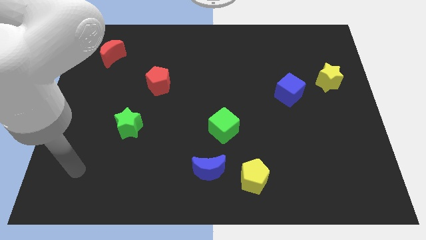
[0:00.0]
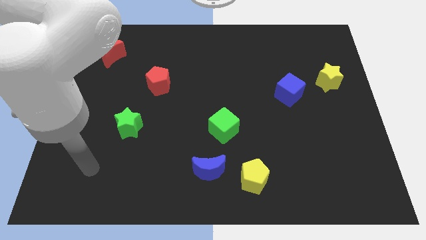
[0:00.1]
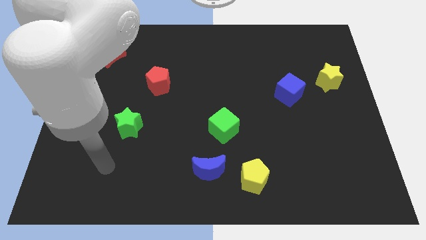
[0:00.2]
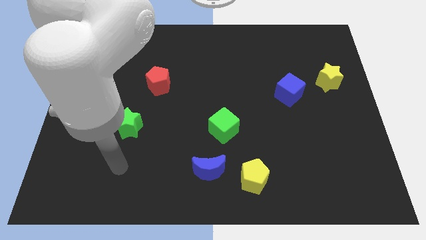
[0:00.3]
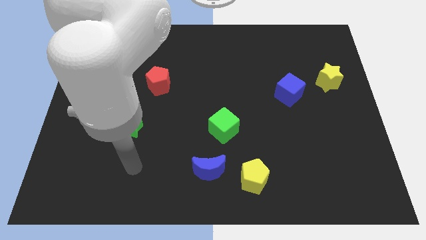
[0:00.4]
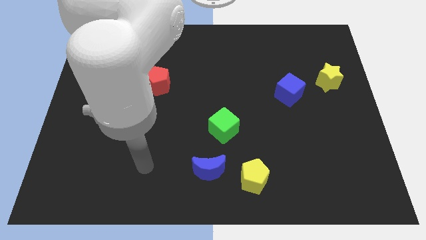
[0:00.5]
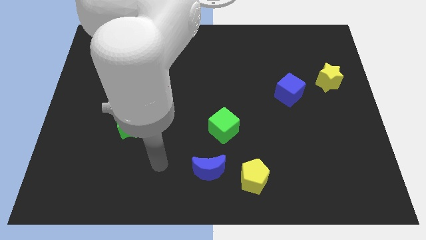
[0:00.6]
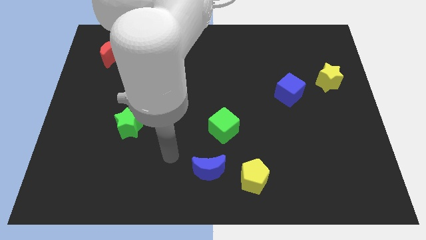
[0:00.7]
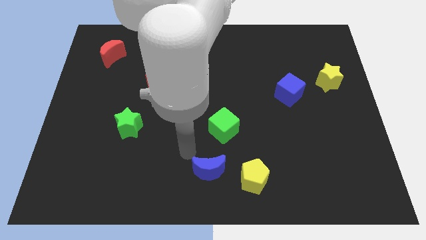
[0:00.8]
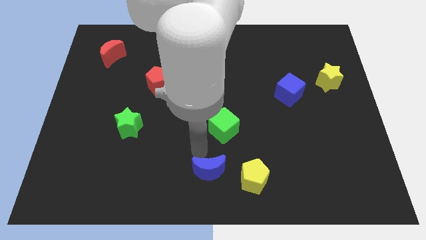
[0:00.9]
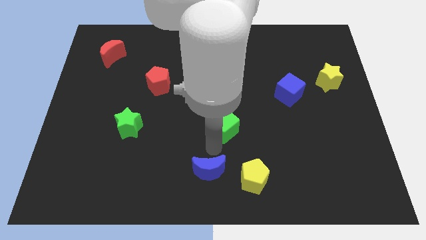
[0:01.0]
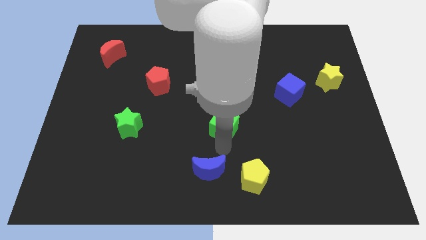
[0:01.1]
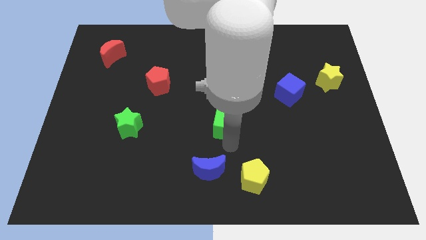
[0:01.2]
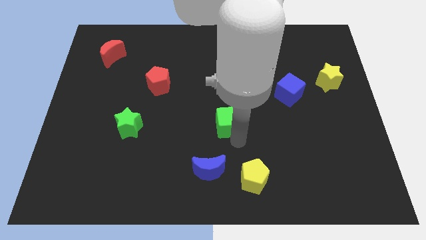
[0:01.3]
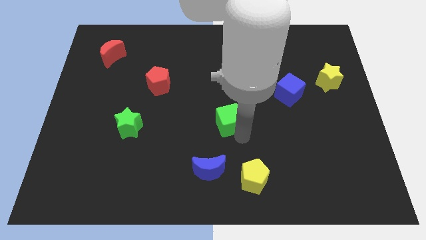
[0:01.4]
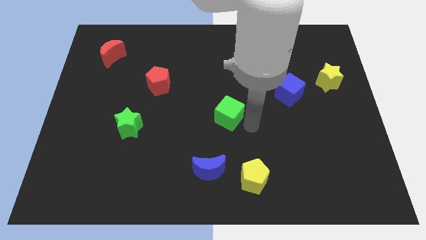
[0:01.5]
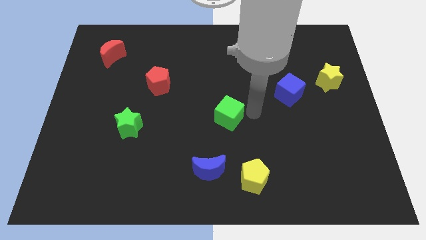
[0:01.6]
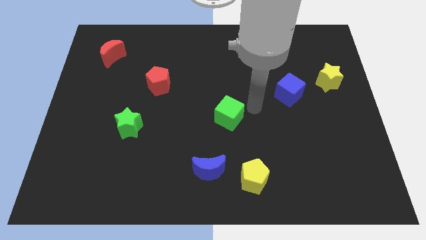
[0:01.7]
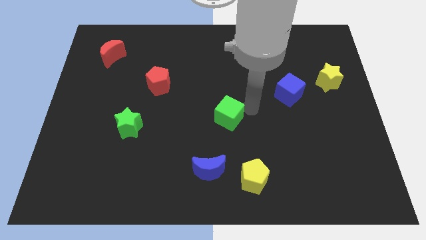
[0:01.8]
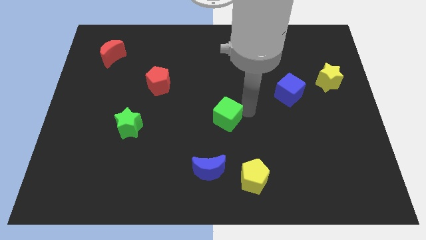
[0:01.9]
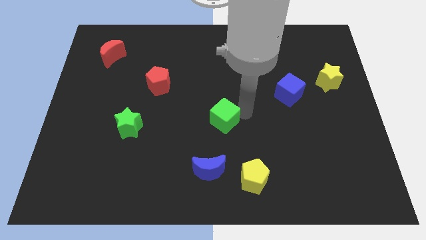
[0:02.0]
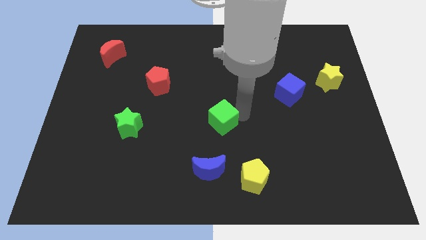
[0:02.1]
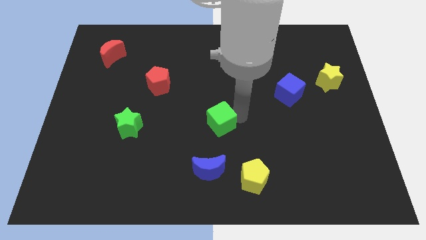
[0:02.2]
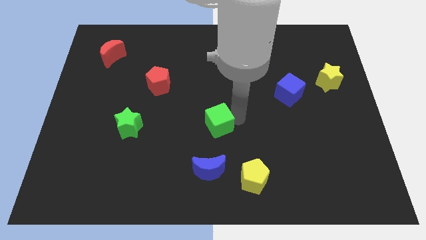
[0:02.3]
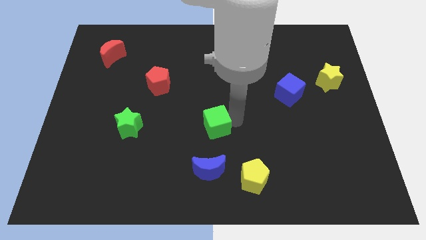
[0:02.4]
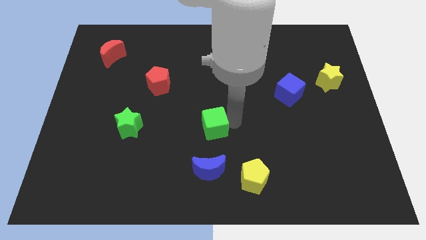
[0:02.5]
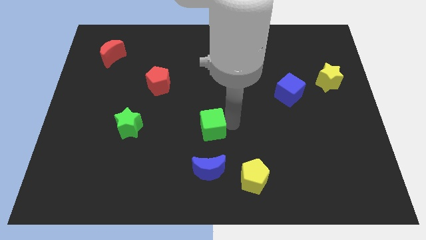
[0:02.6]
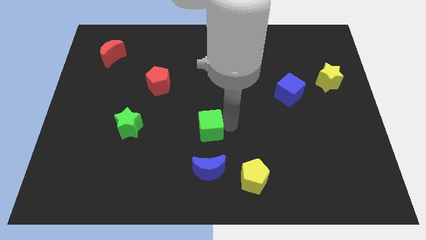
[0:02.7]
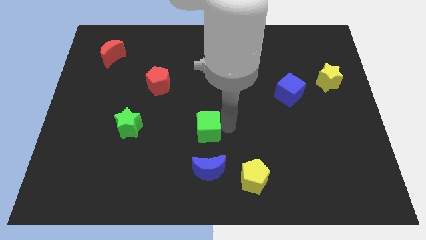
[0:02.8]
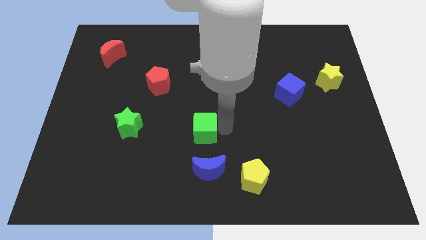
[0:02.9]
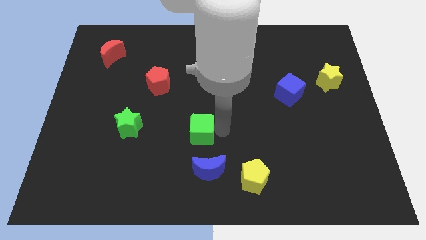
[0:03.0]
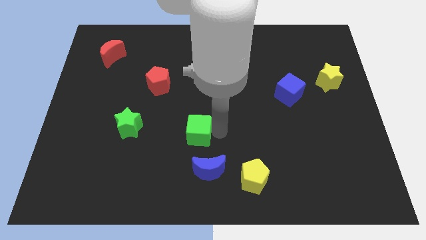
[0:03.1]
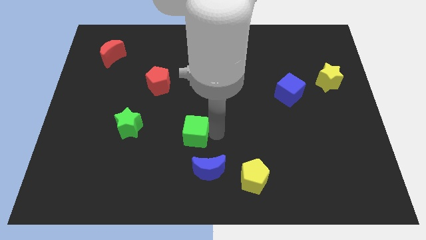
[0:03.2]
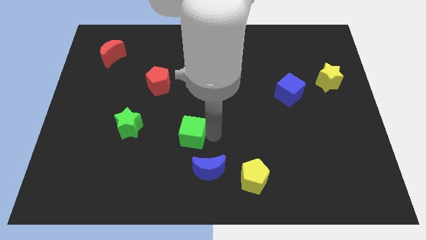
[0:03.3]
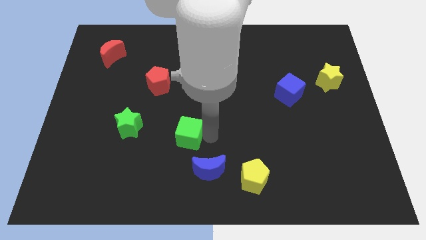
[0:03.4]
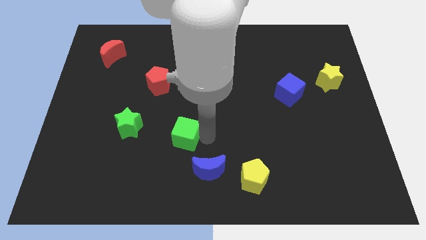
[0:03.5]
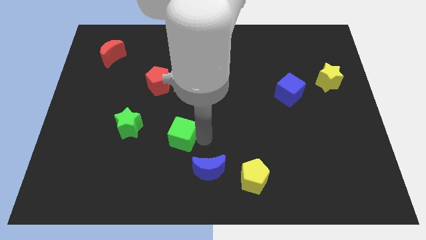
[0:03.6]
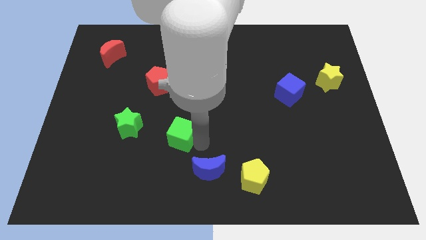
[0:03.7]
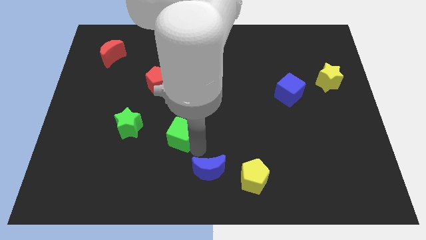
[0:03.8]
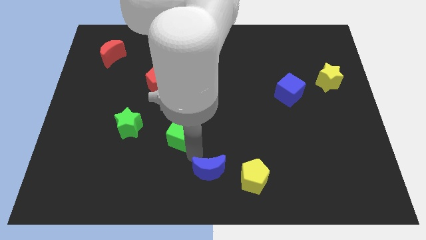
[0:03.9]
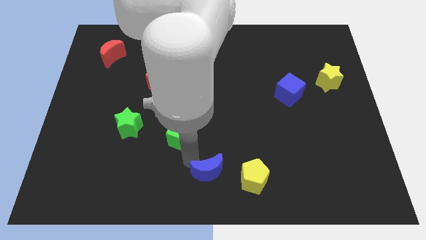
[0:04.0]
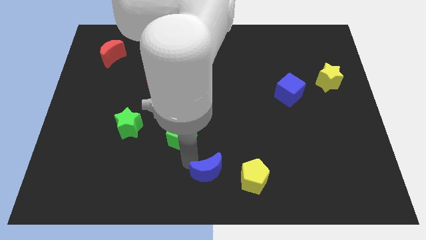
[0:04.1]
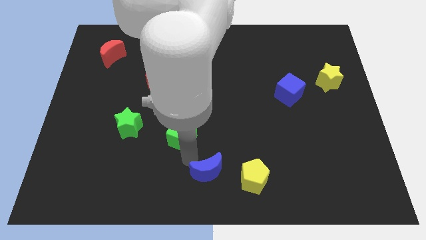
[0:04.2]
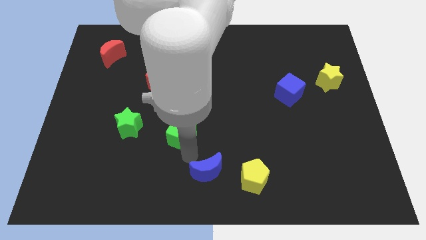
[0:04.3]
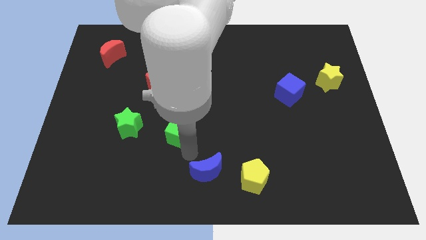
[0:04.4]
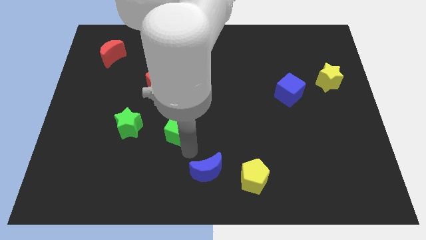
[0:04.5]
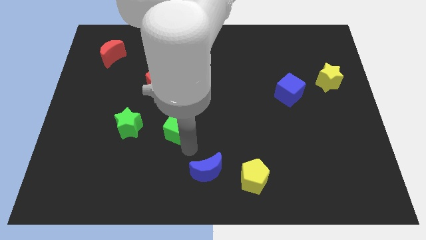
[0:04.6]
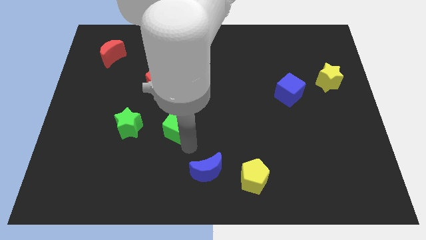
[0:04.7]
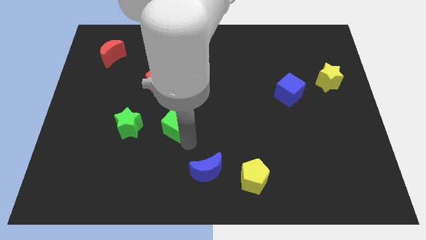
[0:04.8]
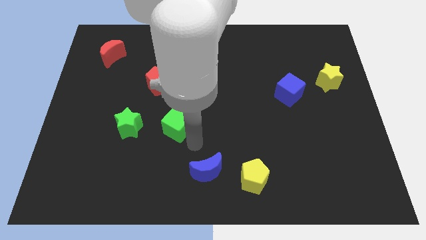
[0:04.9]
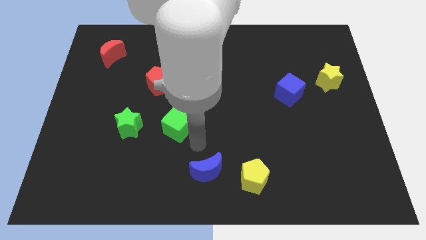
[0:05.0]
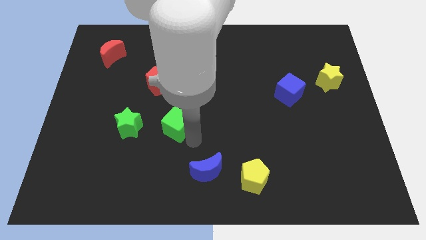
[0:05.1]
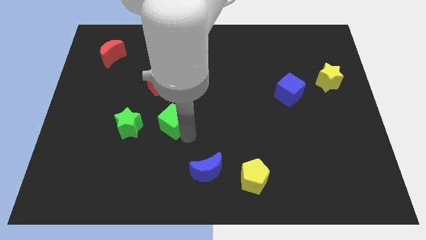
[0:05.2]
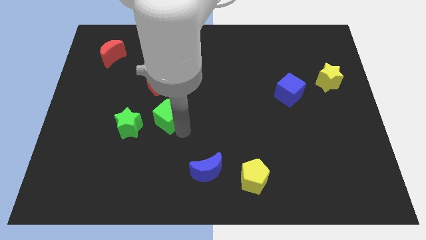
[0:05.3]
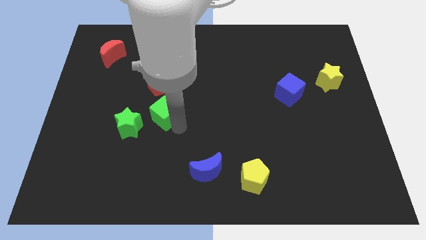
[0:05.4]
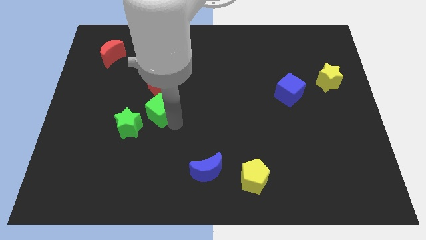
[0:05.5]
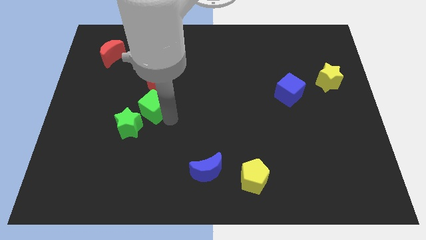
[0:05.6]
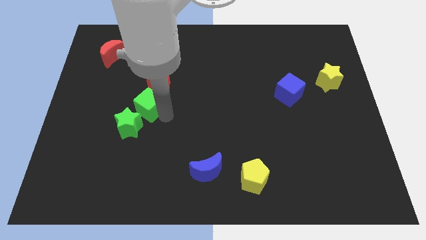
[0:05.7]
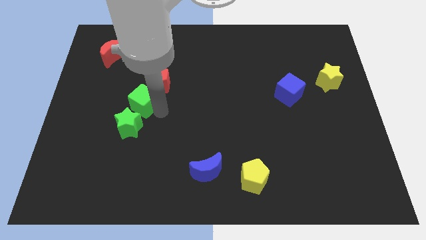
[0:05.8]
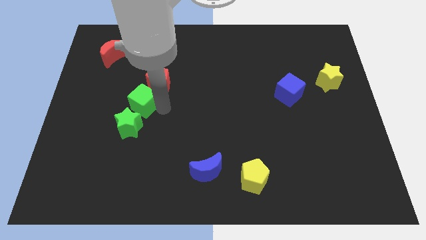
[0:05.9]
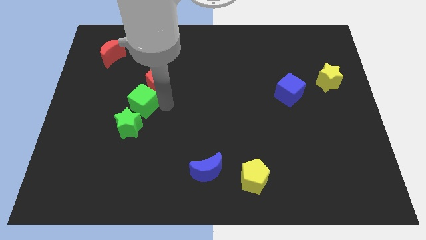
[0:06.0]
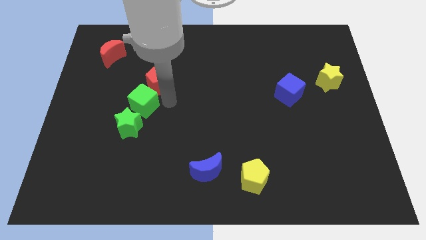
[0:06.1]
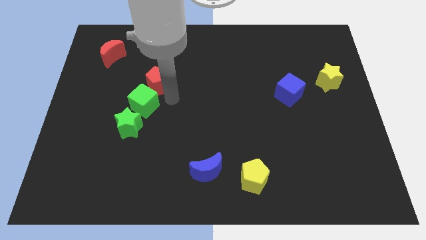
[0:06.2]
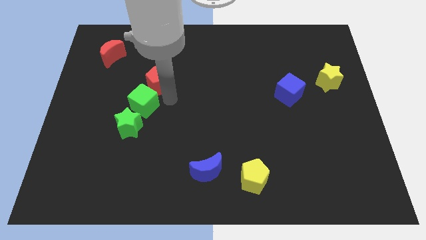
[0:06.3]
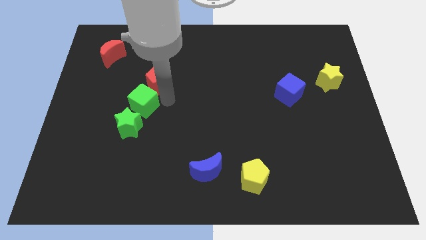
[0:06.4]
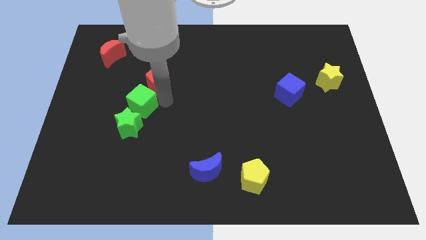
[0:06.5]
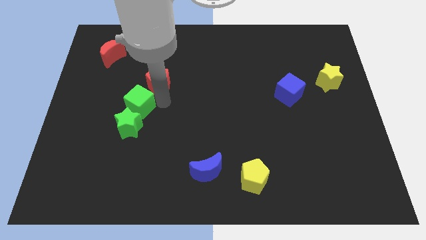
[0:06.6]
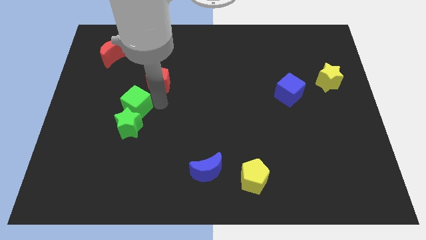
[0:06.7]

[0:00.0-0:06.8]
move the green cube to the top left of the green star
